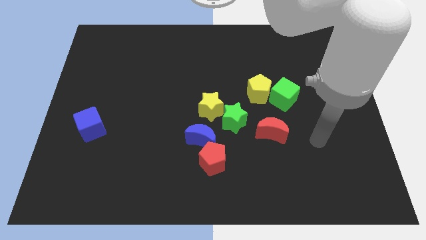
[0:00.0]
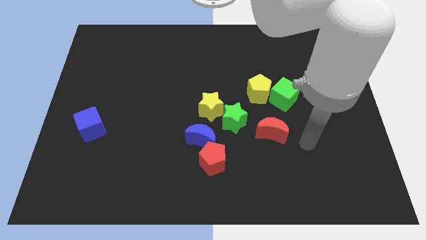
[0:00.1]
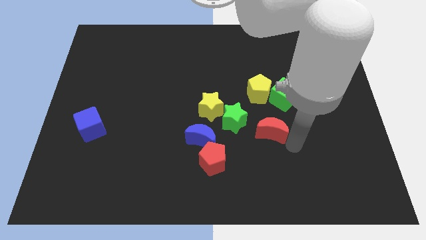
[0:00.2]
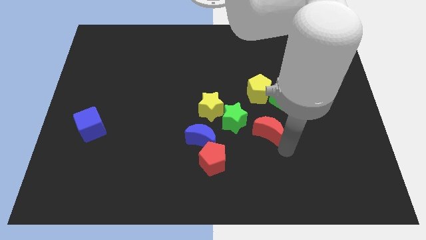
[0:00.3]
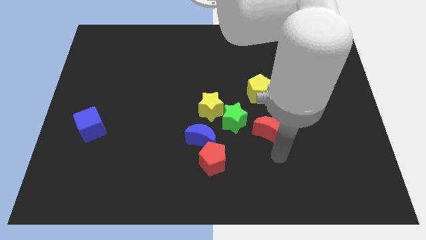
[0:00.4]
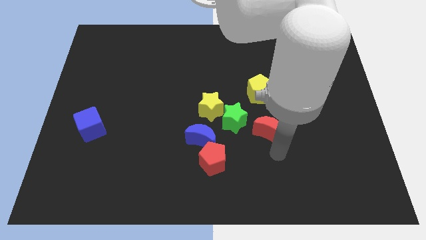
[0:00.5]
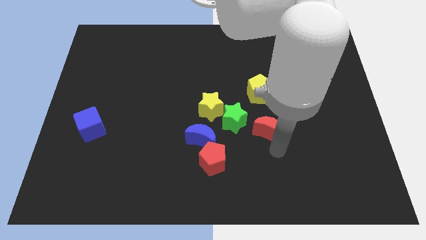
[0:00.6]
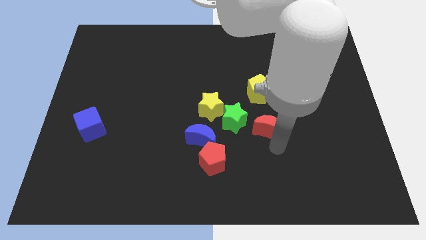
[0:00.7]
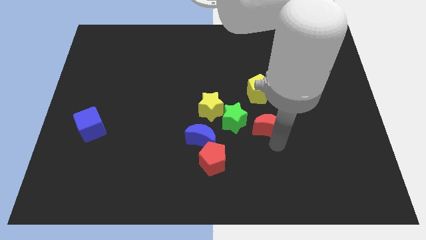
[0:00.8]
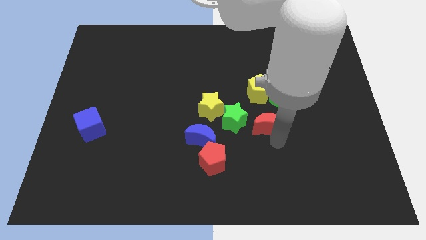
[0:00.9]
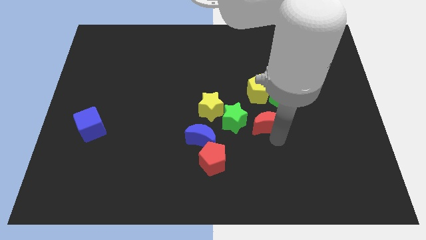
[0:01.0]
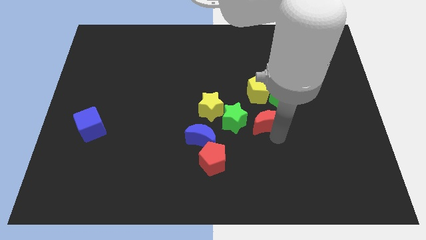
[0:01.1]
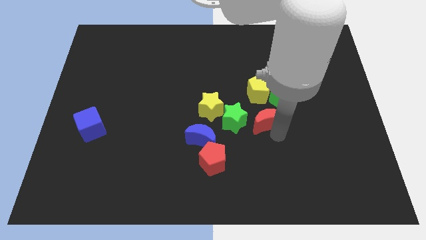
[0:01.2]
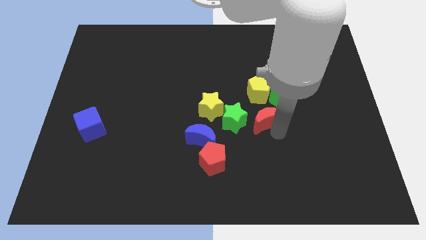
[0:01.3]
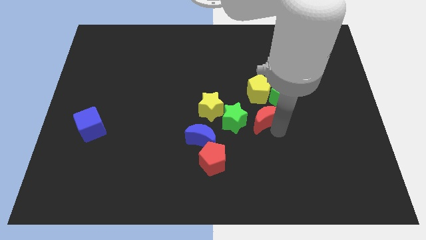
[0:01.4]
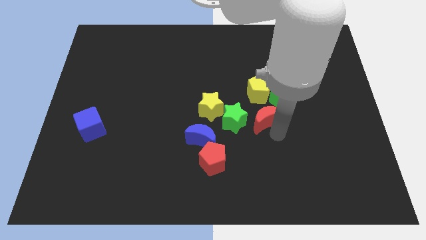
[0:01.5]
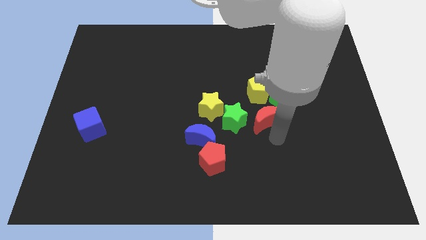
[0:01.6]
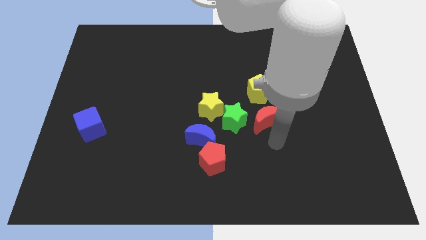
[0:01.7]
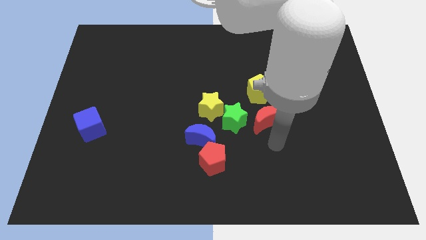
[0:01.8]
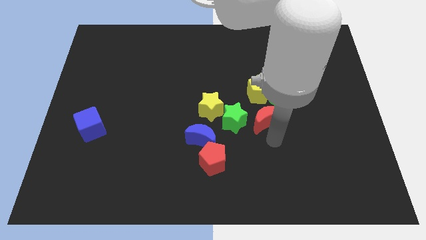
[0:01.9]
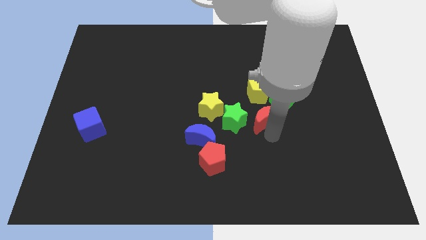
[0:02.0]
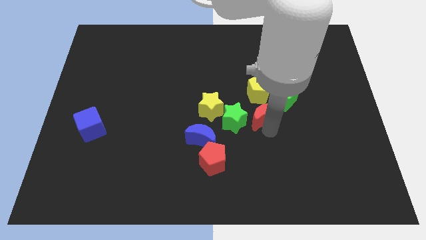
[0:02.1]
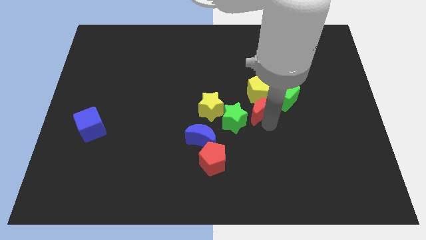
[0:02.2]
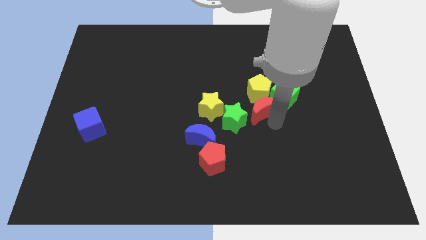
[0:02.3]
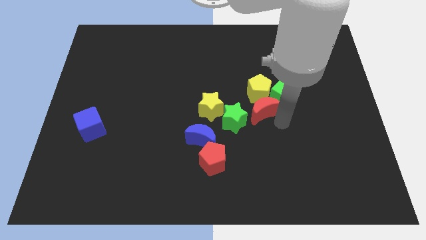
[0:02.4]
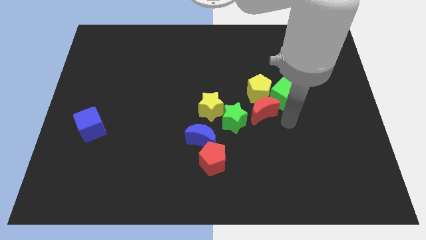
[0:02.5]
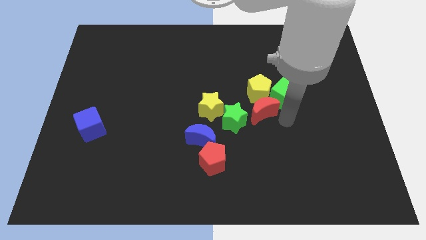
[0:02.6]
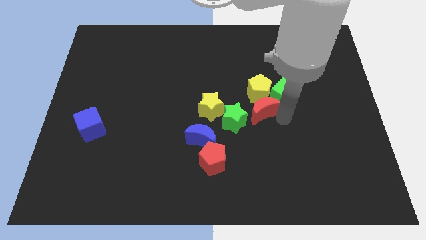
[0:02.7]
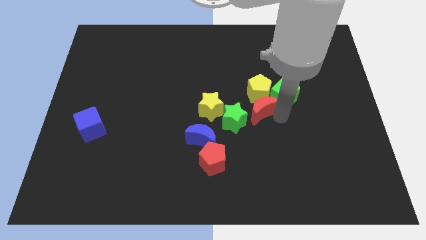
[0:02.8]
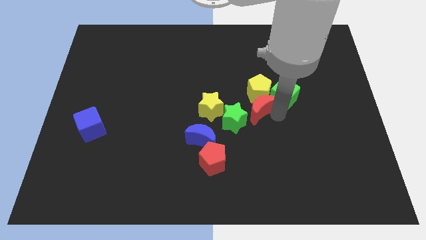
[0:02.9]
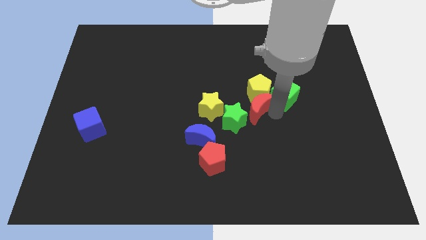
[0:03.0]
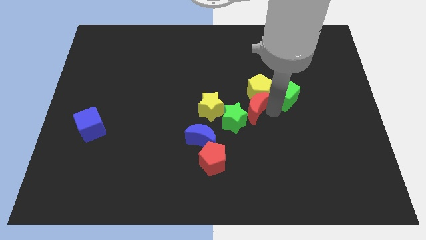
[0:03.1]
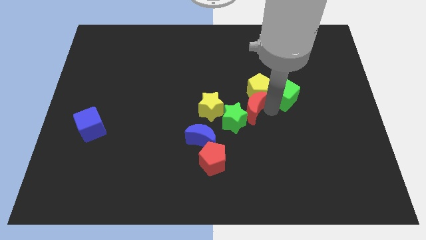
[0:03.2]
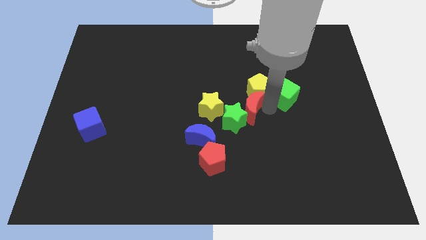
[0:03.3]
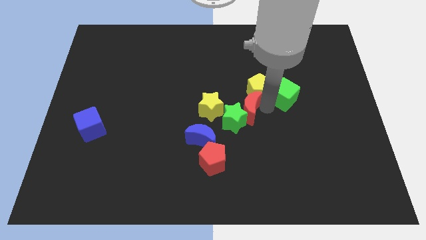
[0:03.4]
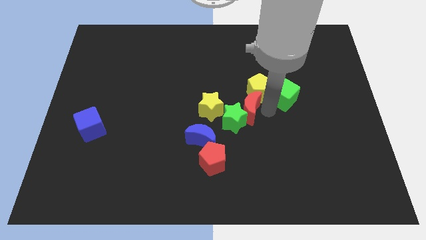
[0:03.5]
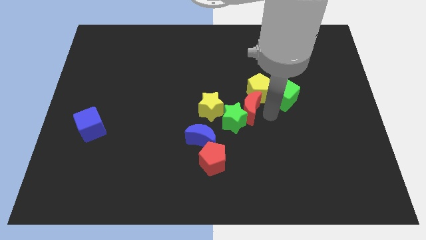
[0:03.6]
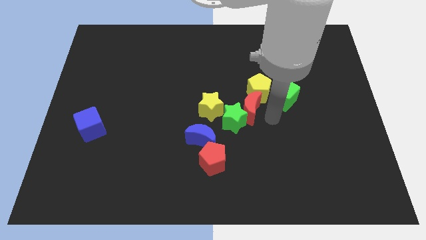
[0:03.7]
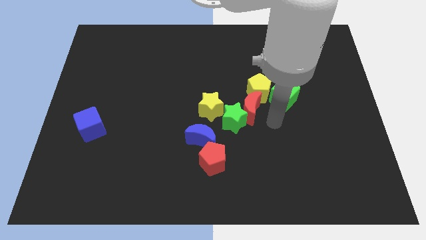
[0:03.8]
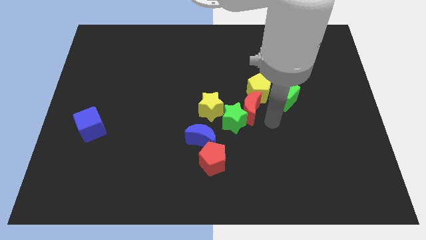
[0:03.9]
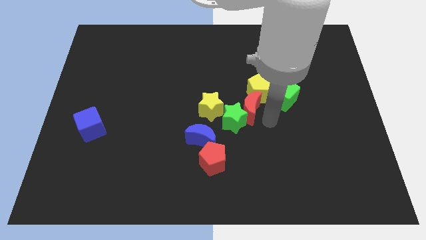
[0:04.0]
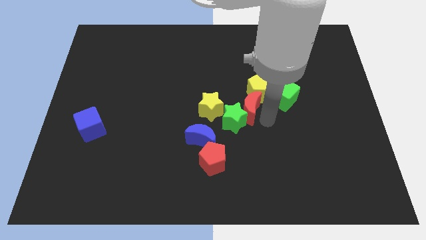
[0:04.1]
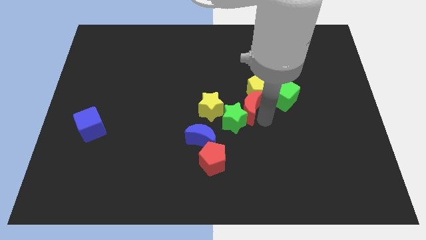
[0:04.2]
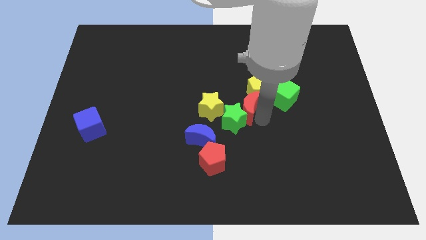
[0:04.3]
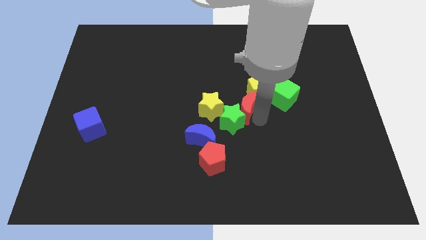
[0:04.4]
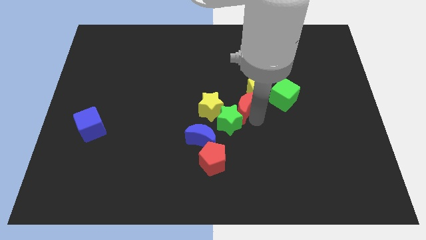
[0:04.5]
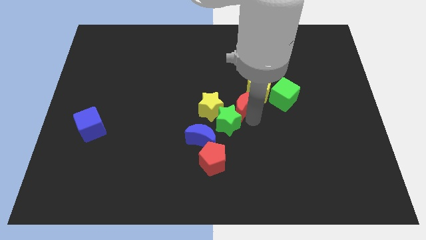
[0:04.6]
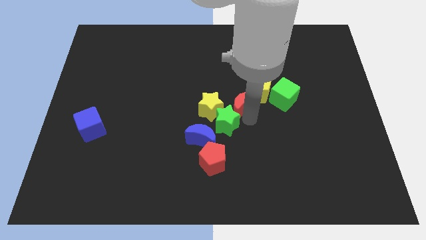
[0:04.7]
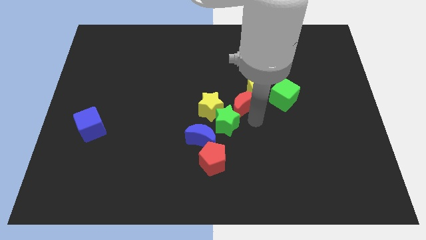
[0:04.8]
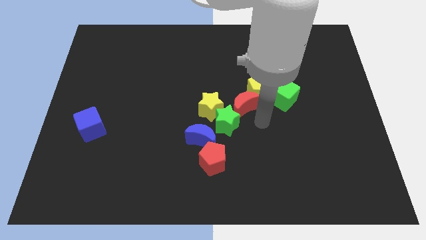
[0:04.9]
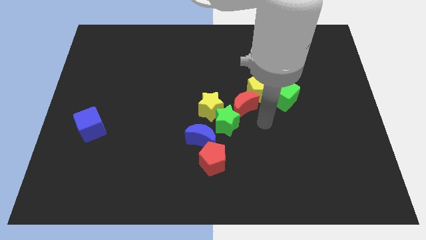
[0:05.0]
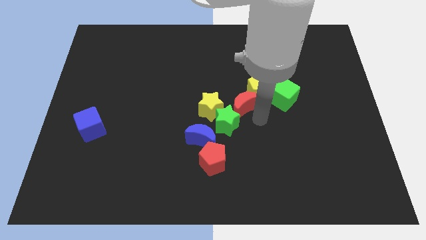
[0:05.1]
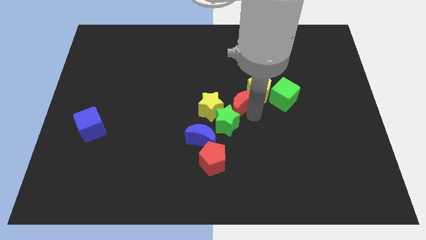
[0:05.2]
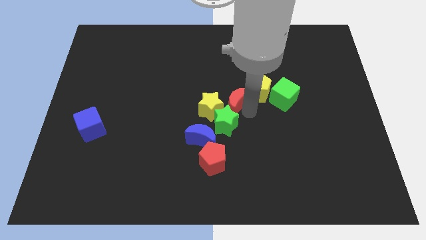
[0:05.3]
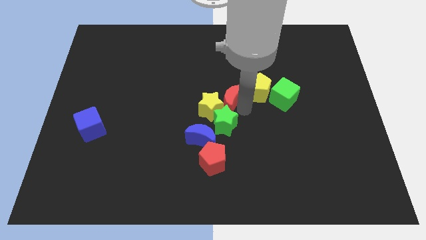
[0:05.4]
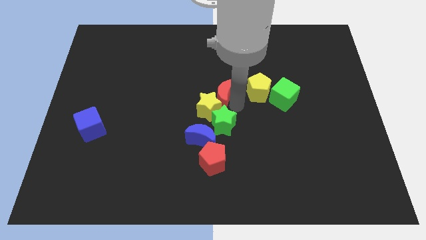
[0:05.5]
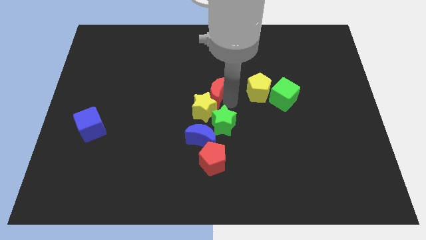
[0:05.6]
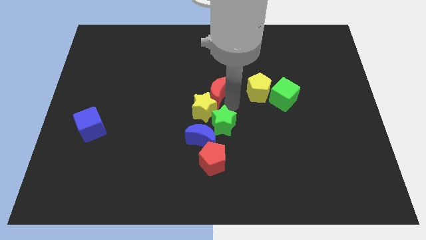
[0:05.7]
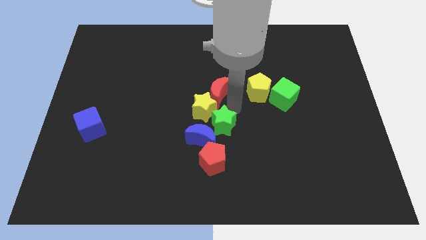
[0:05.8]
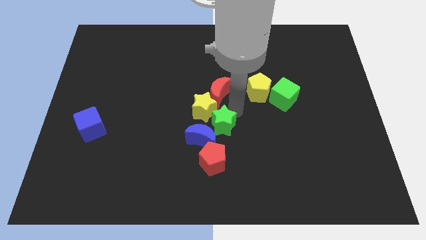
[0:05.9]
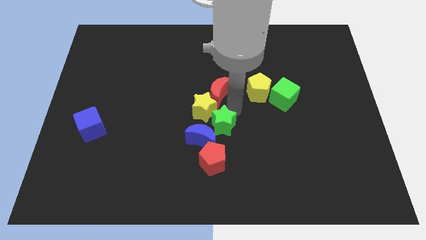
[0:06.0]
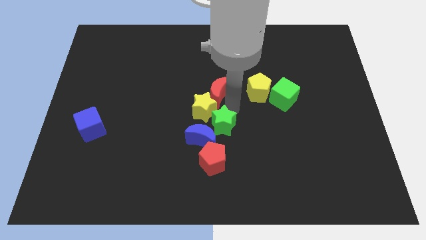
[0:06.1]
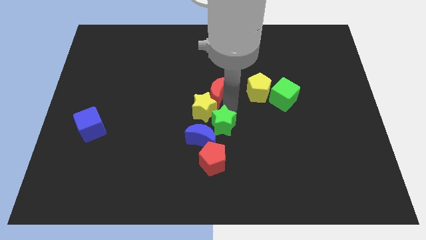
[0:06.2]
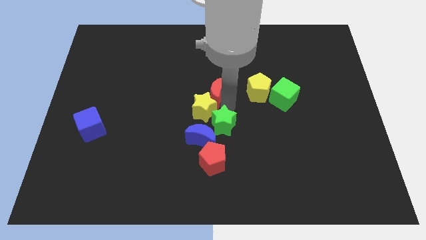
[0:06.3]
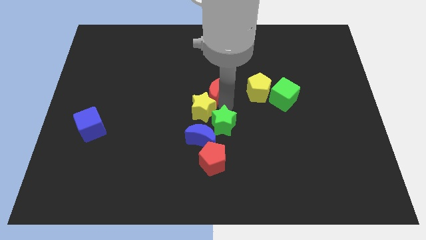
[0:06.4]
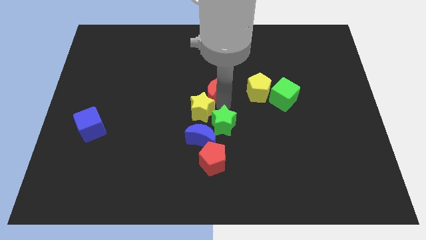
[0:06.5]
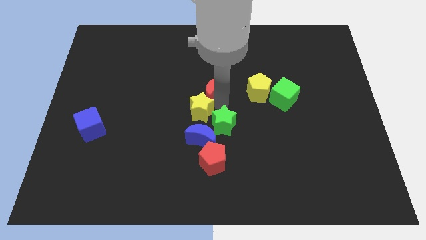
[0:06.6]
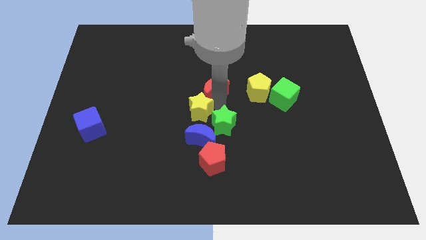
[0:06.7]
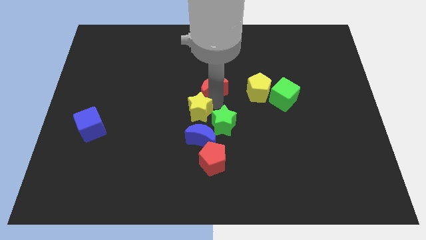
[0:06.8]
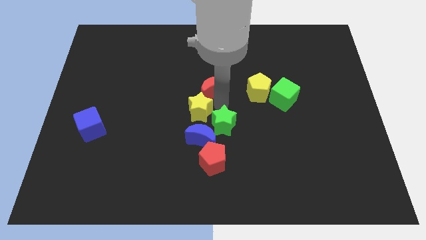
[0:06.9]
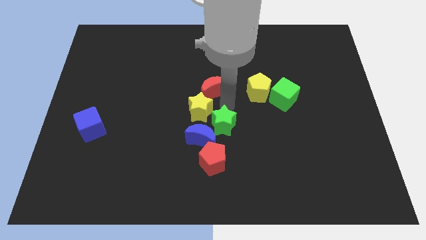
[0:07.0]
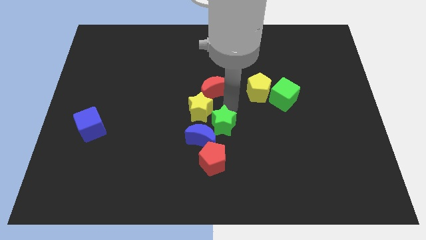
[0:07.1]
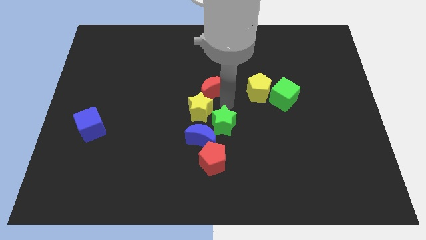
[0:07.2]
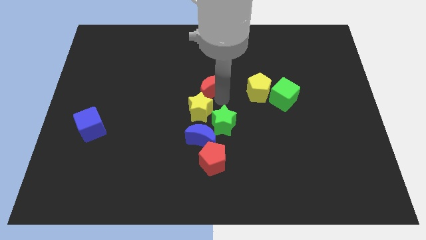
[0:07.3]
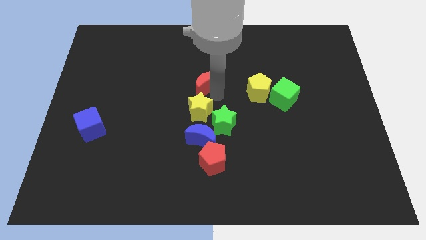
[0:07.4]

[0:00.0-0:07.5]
slide the red moon diagonally up and to the left

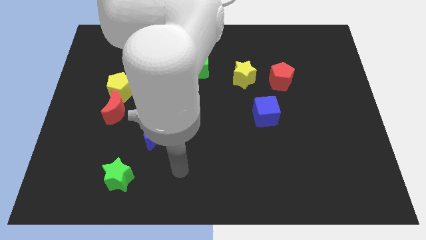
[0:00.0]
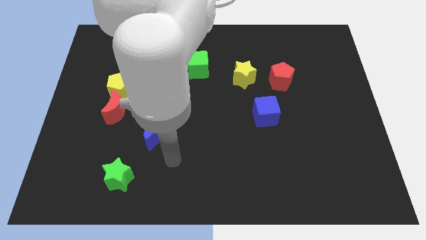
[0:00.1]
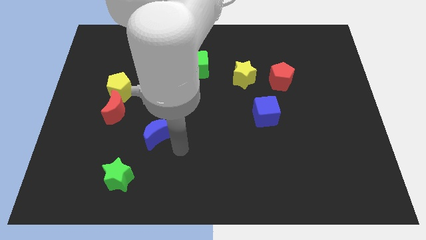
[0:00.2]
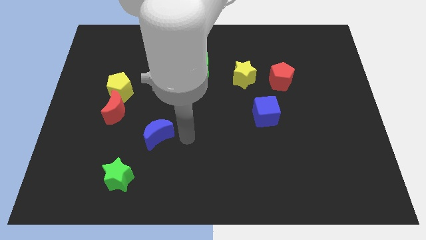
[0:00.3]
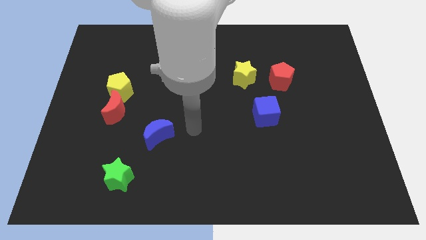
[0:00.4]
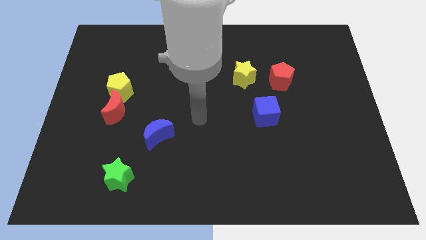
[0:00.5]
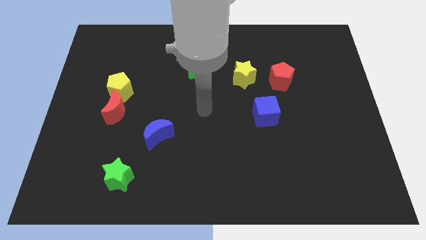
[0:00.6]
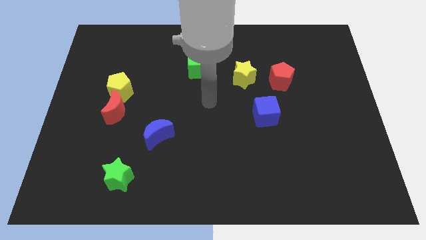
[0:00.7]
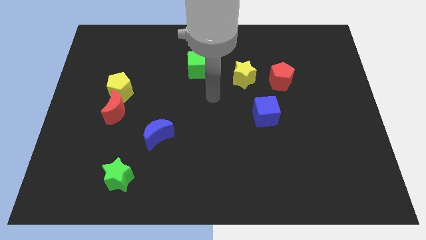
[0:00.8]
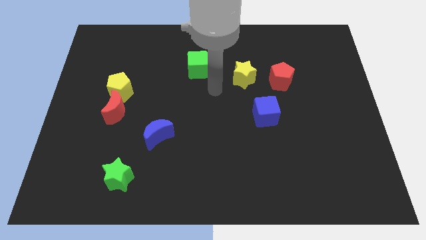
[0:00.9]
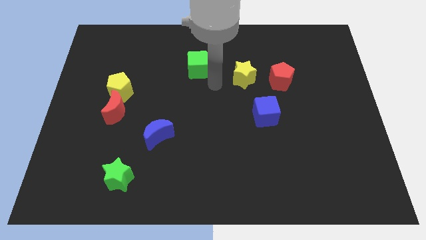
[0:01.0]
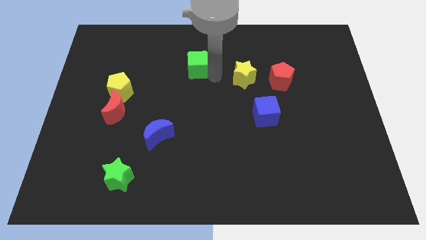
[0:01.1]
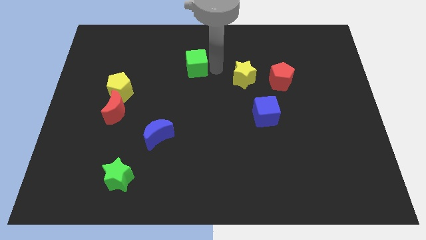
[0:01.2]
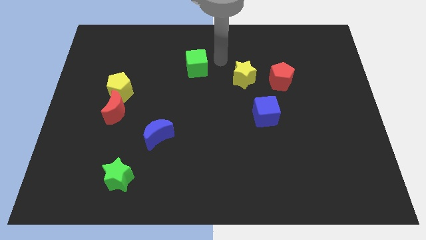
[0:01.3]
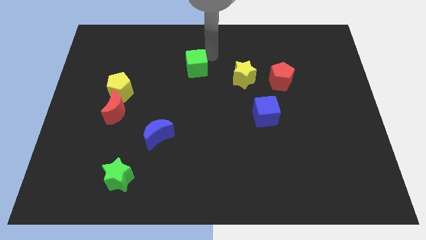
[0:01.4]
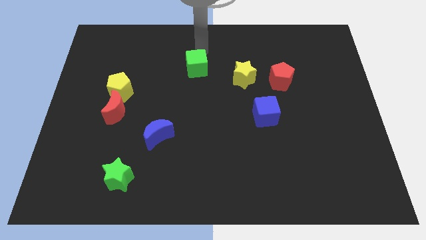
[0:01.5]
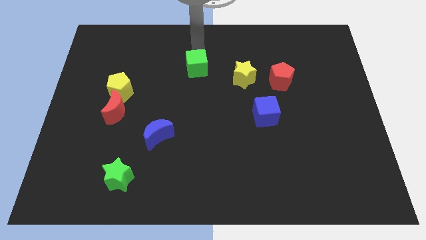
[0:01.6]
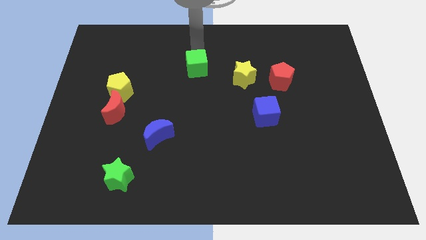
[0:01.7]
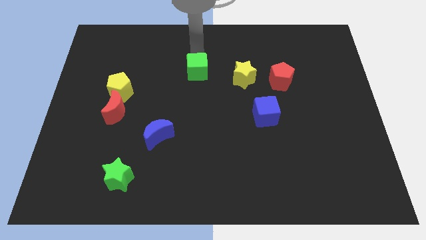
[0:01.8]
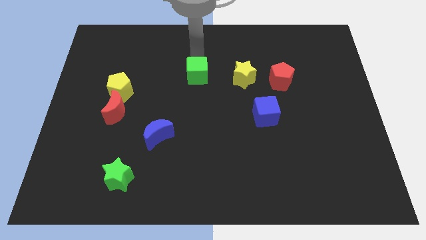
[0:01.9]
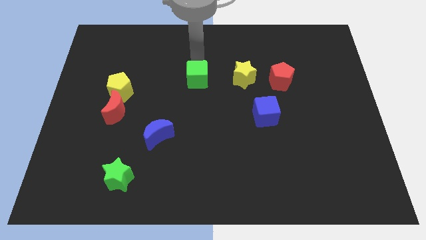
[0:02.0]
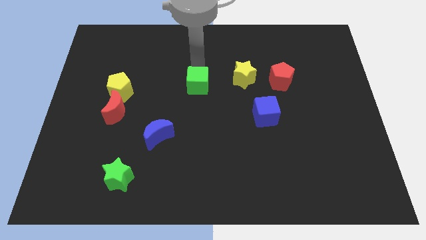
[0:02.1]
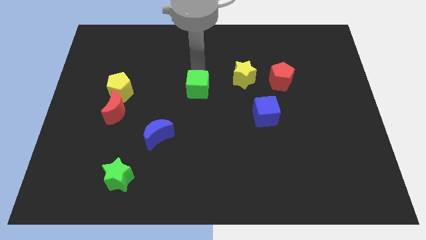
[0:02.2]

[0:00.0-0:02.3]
push the green cube a little bit down
